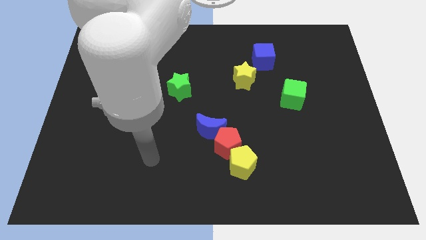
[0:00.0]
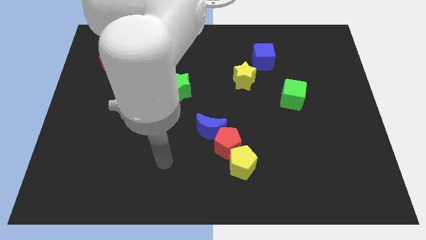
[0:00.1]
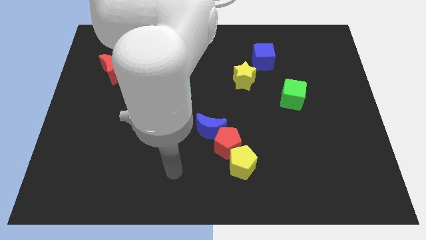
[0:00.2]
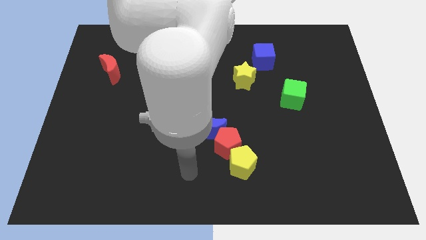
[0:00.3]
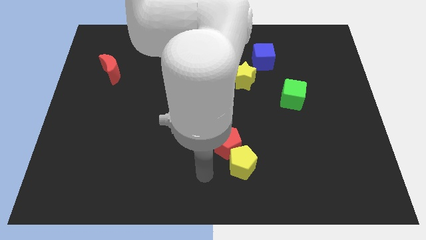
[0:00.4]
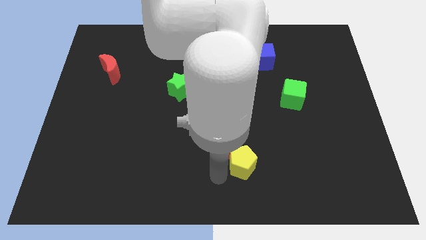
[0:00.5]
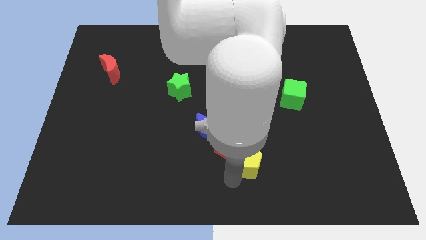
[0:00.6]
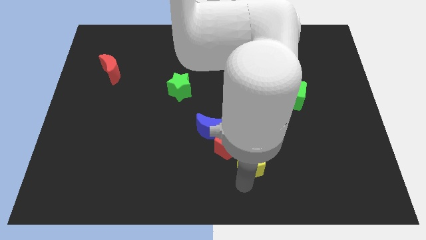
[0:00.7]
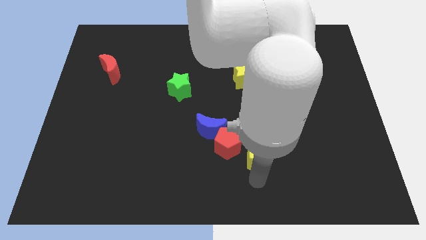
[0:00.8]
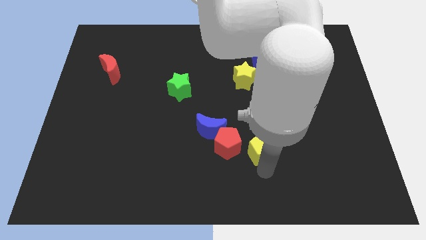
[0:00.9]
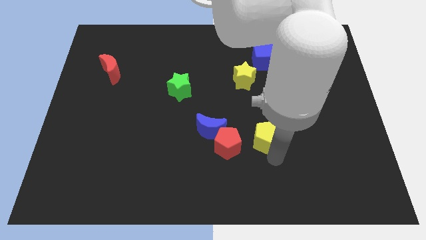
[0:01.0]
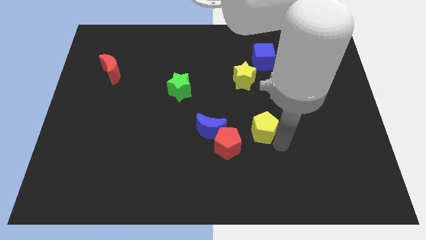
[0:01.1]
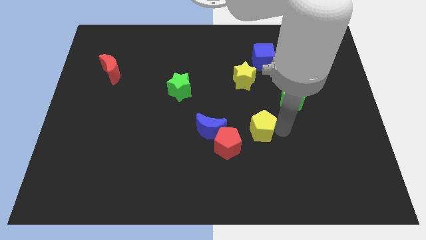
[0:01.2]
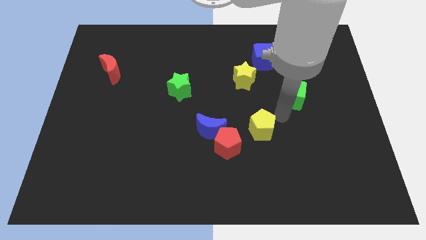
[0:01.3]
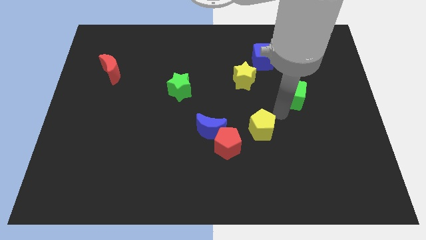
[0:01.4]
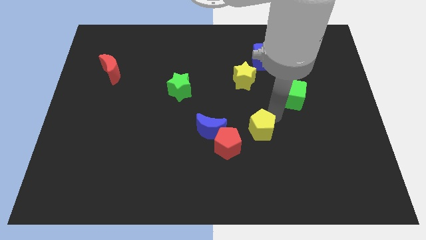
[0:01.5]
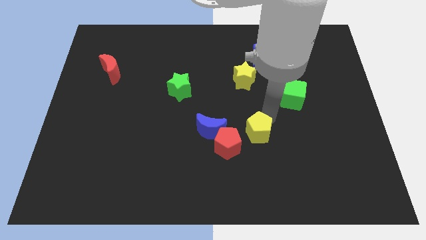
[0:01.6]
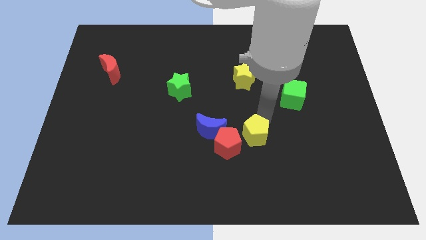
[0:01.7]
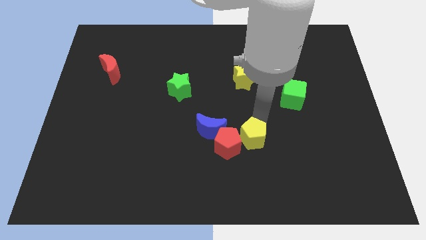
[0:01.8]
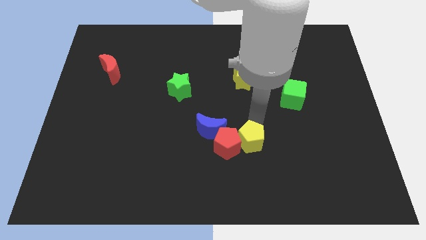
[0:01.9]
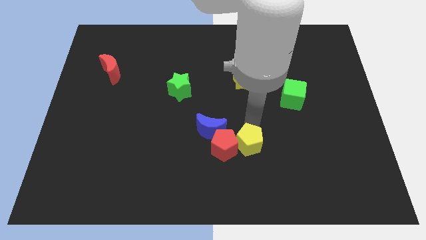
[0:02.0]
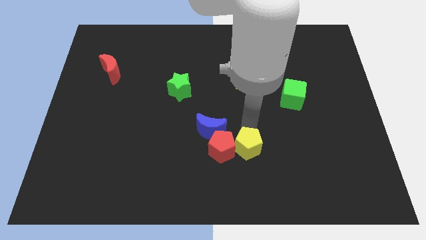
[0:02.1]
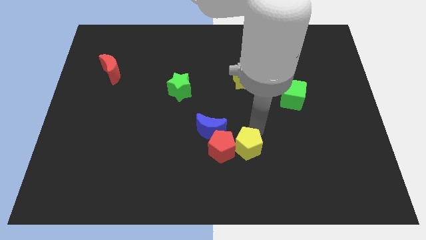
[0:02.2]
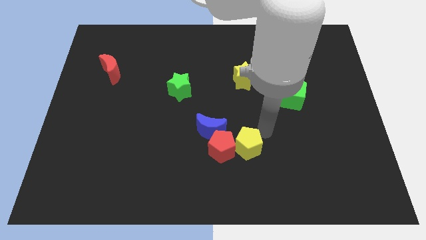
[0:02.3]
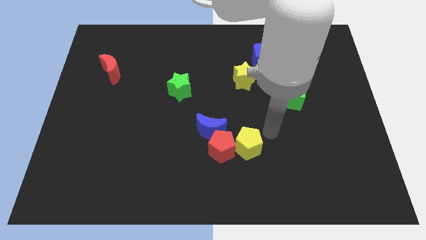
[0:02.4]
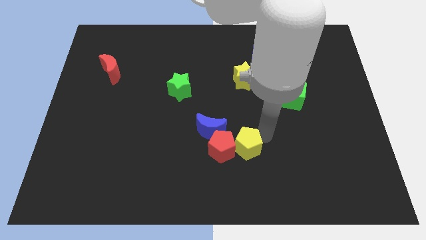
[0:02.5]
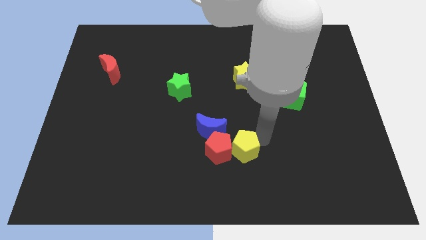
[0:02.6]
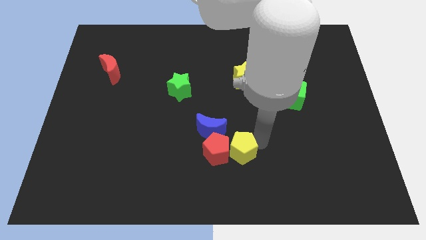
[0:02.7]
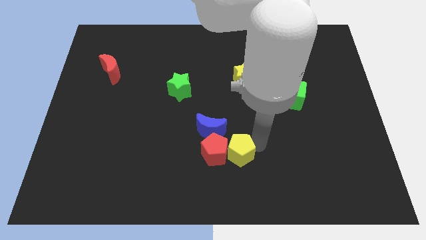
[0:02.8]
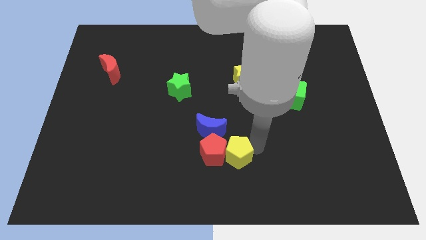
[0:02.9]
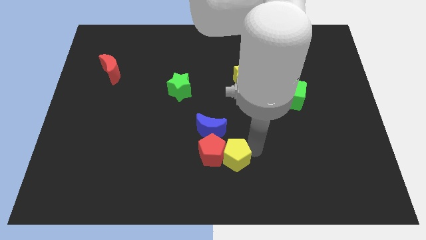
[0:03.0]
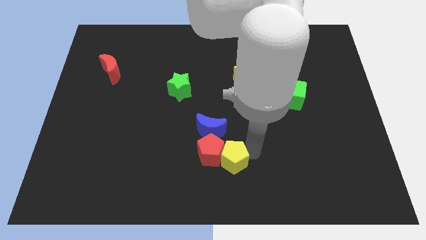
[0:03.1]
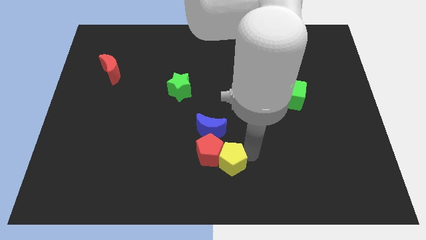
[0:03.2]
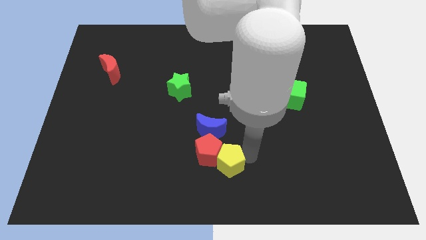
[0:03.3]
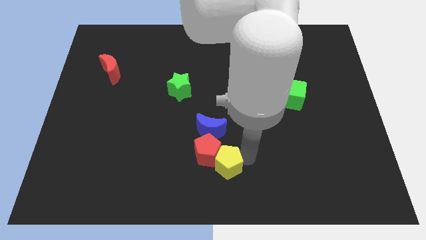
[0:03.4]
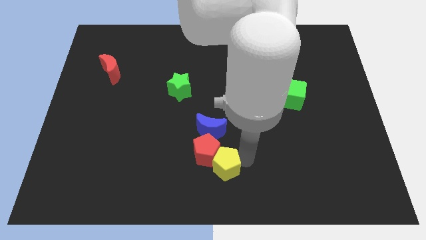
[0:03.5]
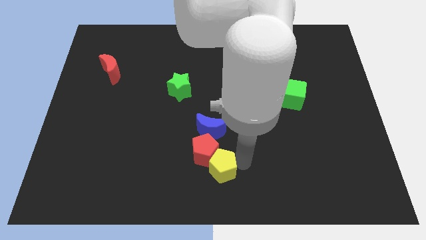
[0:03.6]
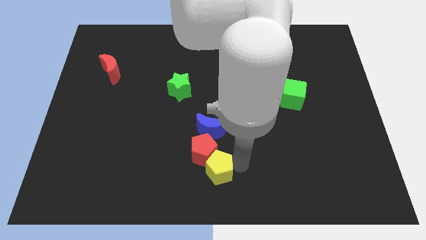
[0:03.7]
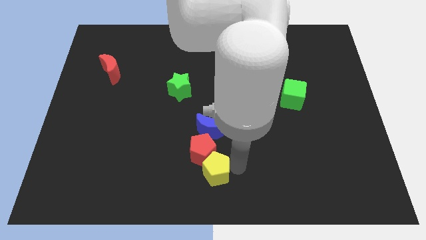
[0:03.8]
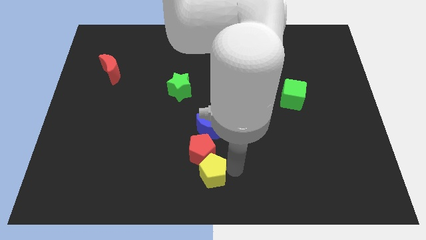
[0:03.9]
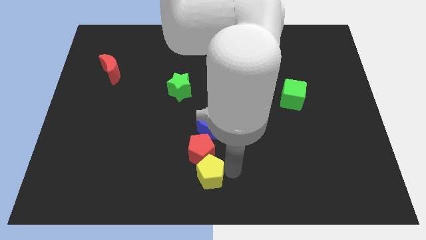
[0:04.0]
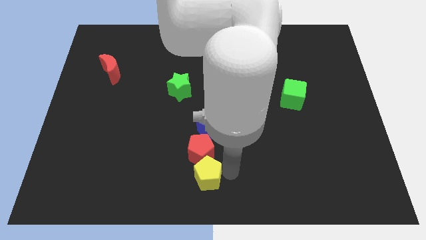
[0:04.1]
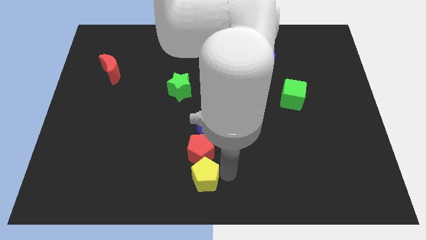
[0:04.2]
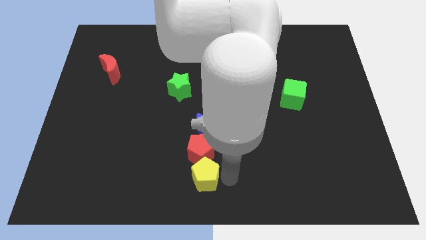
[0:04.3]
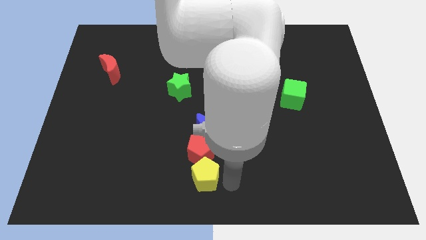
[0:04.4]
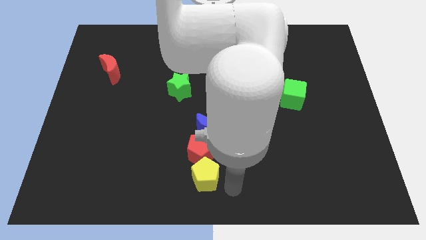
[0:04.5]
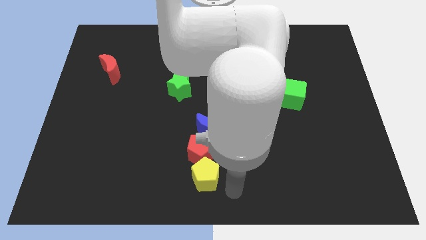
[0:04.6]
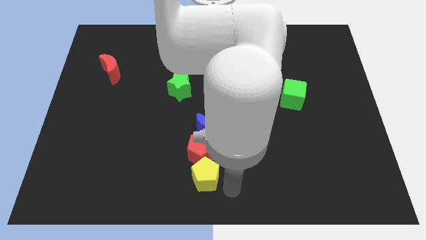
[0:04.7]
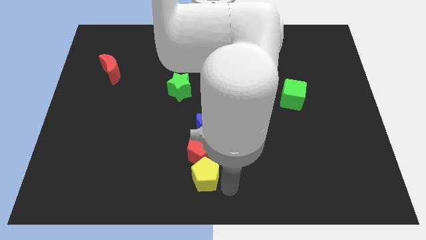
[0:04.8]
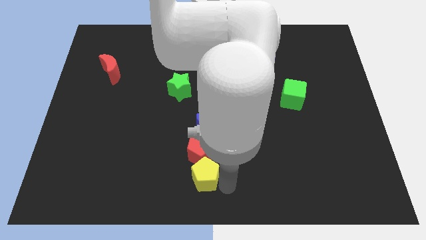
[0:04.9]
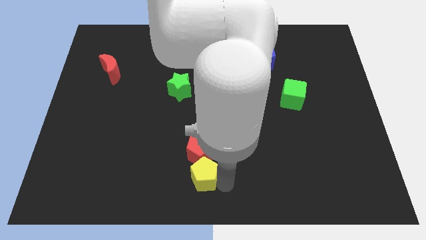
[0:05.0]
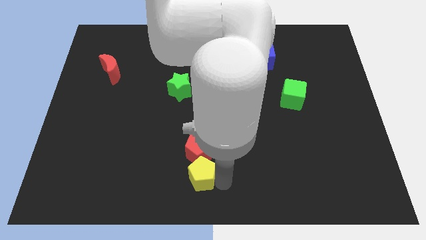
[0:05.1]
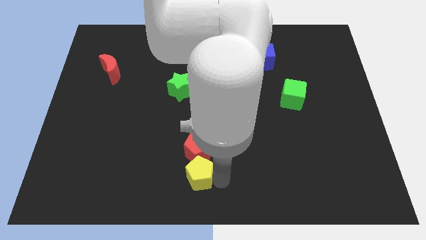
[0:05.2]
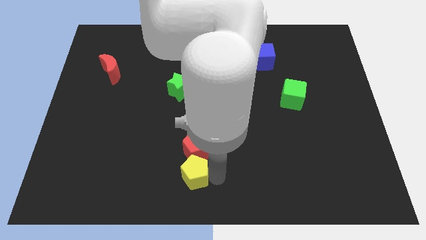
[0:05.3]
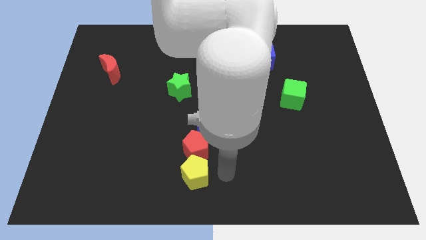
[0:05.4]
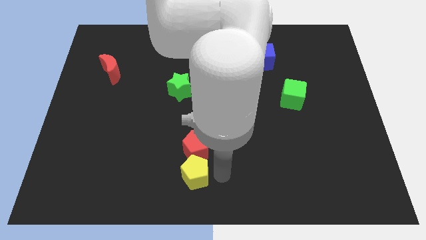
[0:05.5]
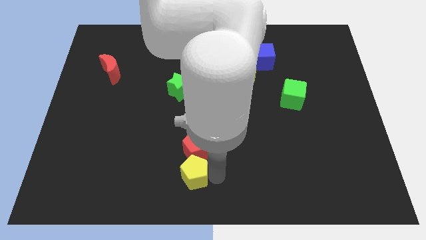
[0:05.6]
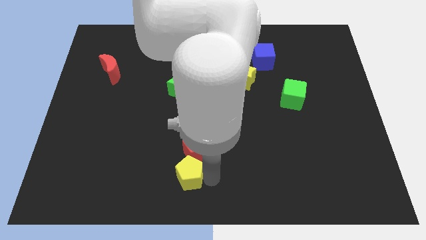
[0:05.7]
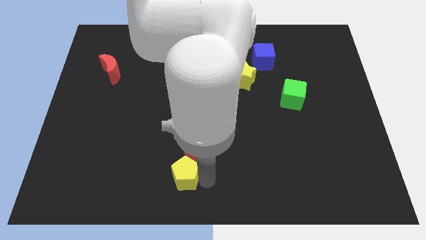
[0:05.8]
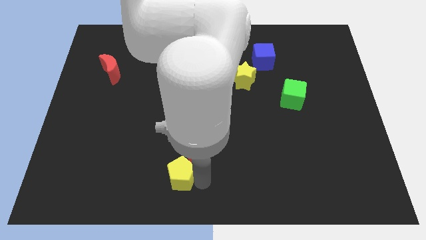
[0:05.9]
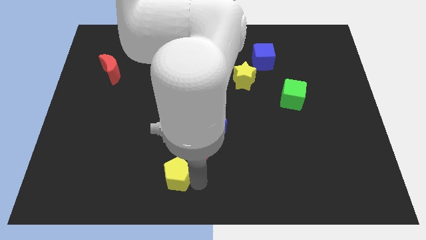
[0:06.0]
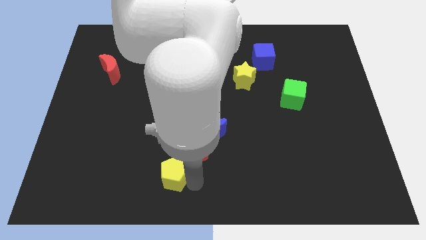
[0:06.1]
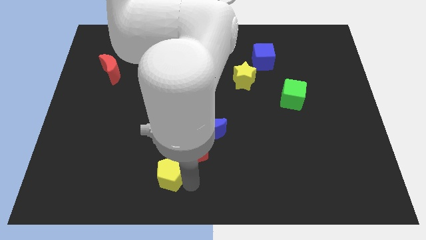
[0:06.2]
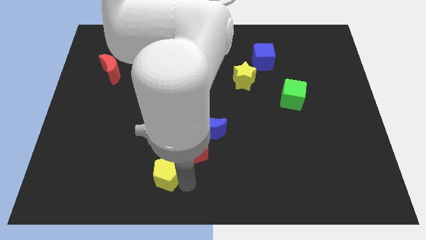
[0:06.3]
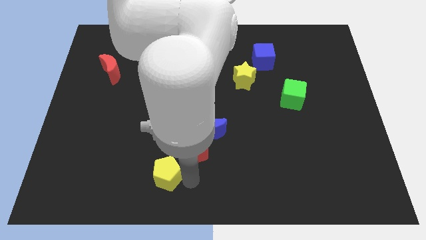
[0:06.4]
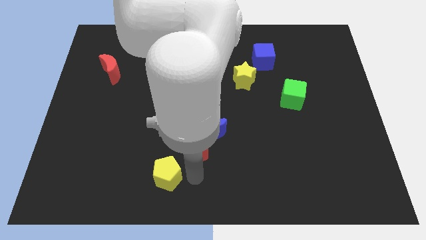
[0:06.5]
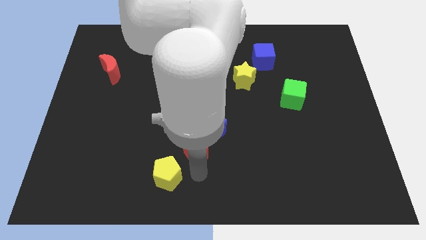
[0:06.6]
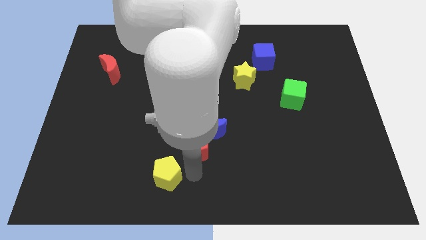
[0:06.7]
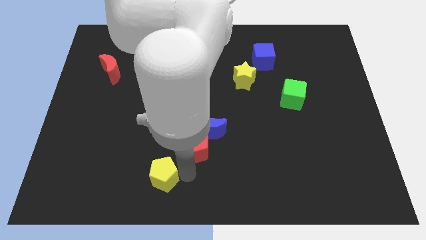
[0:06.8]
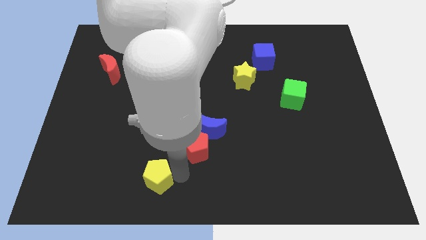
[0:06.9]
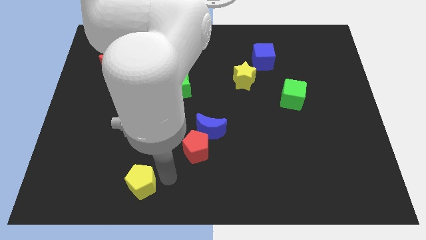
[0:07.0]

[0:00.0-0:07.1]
slide the yellow pentagon to the left

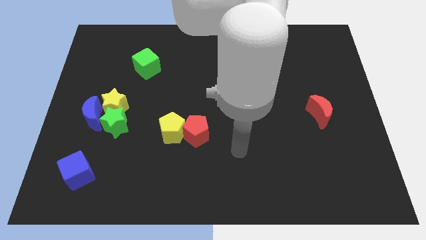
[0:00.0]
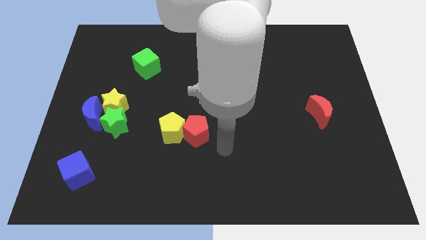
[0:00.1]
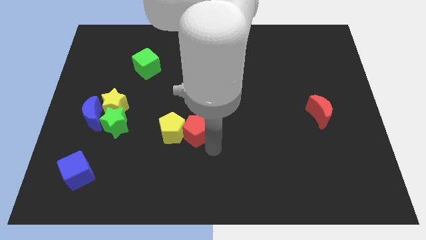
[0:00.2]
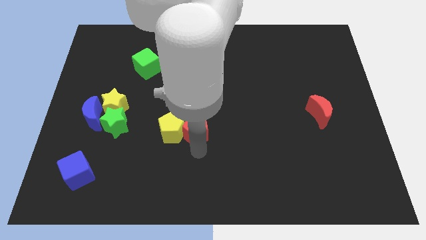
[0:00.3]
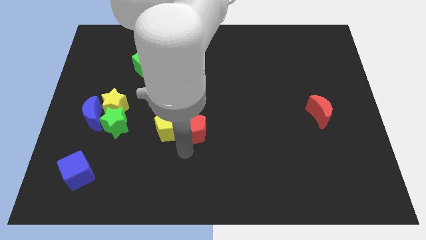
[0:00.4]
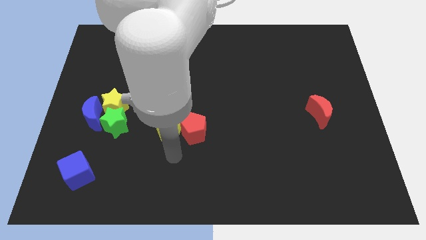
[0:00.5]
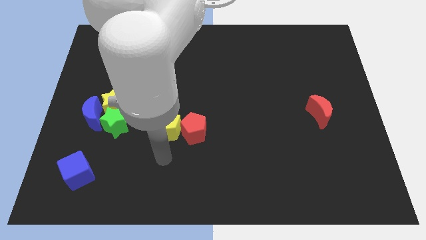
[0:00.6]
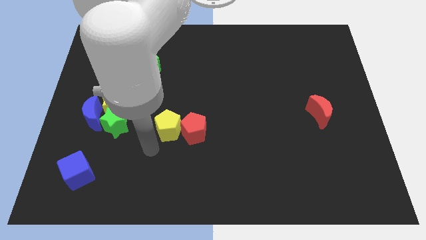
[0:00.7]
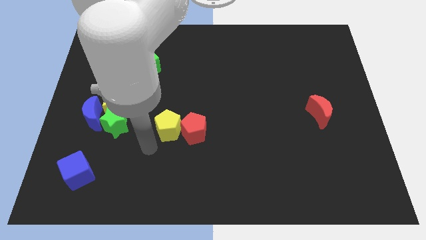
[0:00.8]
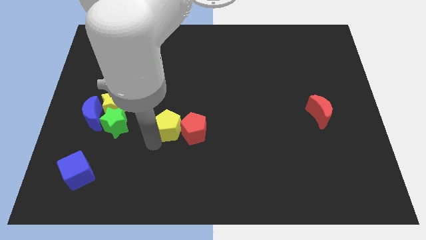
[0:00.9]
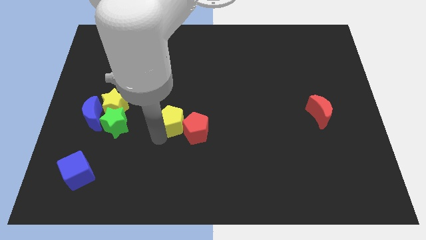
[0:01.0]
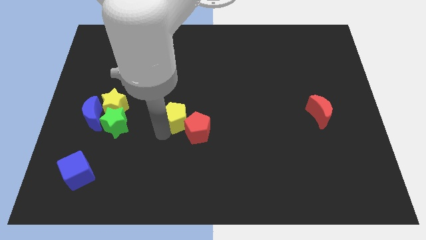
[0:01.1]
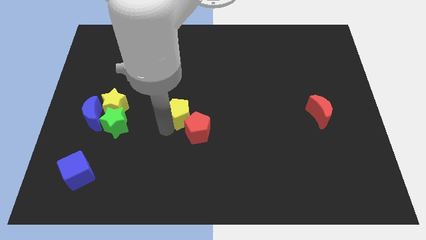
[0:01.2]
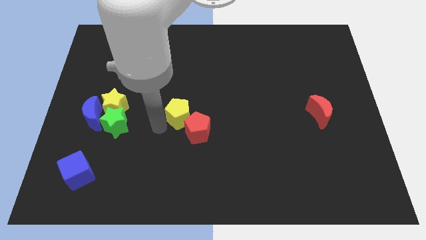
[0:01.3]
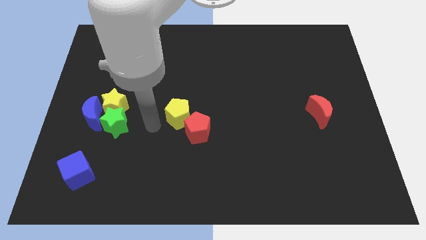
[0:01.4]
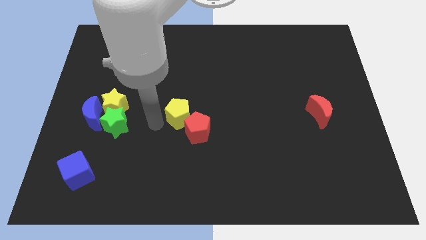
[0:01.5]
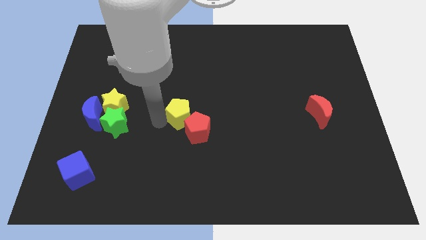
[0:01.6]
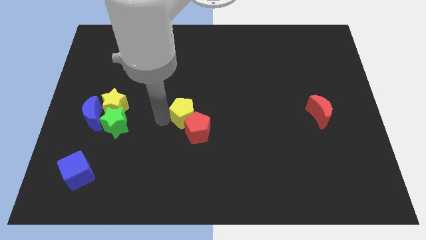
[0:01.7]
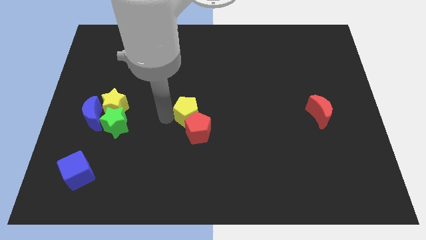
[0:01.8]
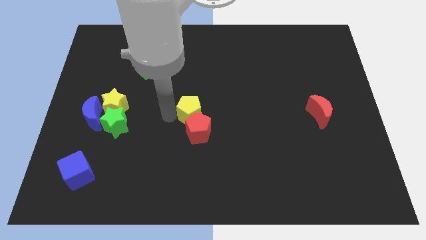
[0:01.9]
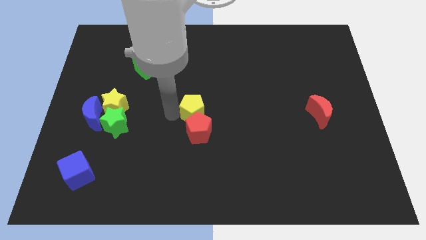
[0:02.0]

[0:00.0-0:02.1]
slightly move the yellow pentagon up and right
